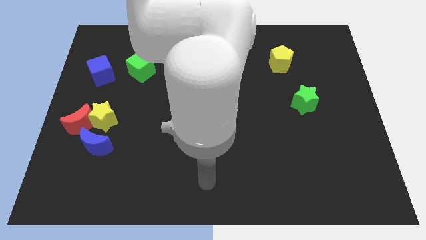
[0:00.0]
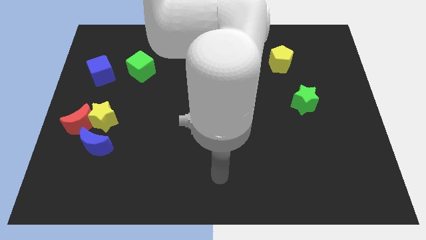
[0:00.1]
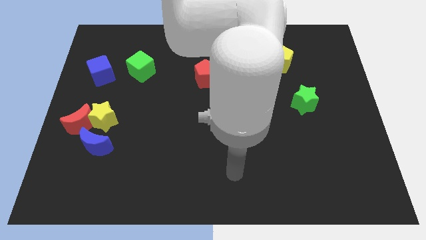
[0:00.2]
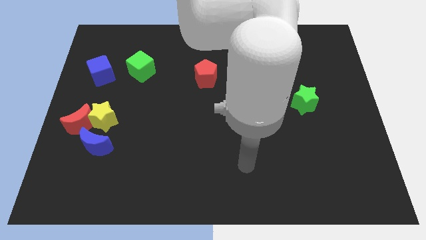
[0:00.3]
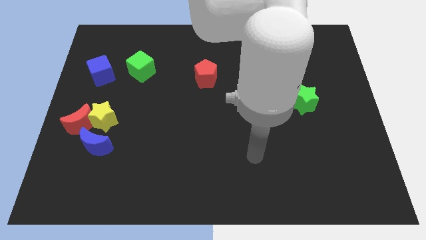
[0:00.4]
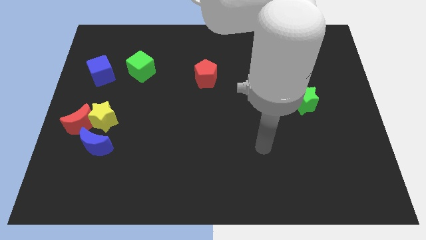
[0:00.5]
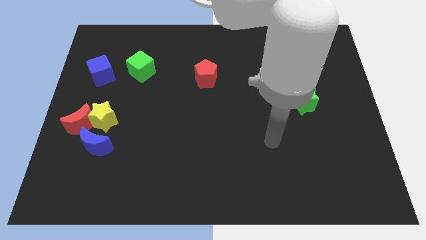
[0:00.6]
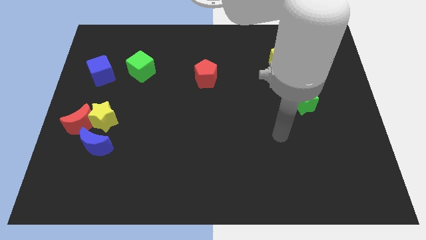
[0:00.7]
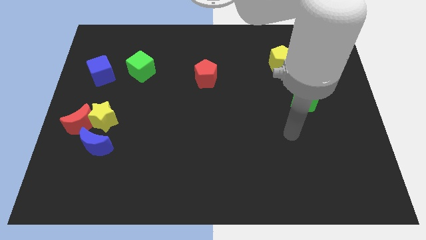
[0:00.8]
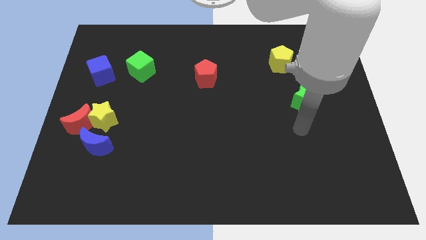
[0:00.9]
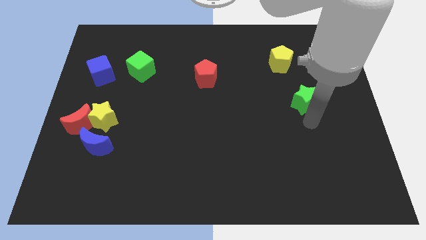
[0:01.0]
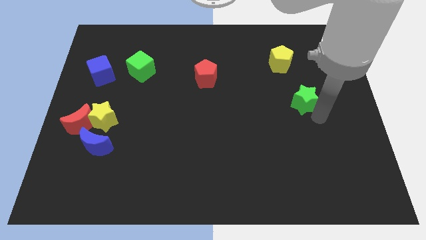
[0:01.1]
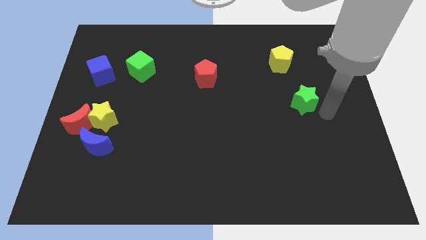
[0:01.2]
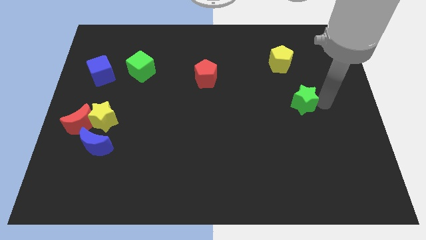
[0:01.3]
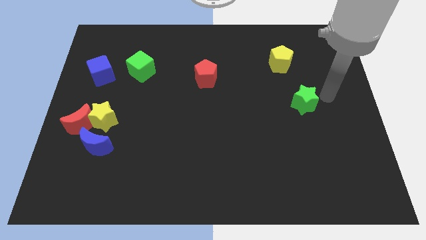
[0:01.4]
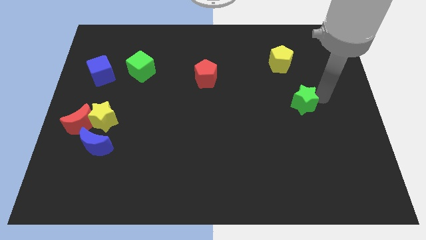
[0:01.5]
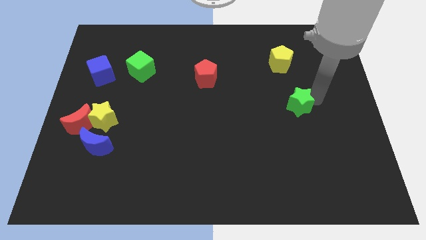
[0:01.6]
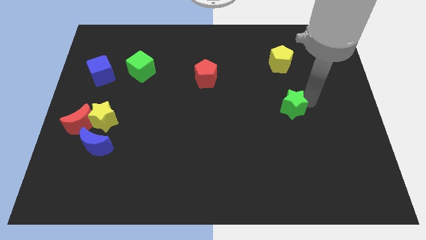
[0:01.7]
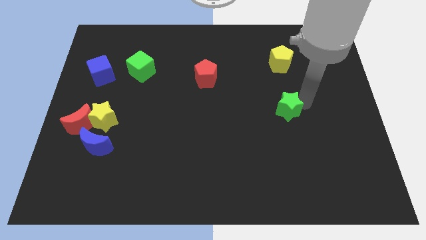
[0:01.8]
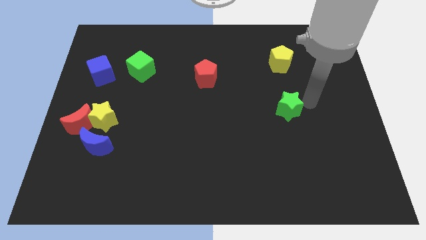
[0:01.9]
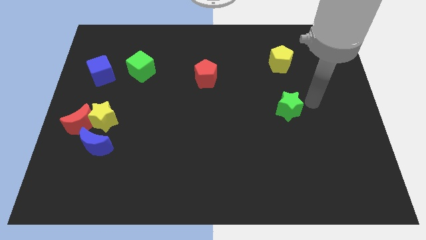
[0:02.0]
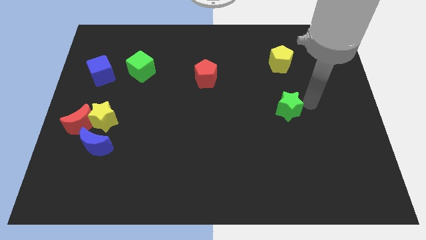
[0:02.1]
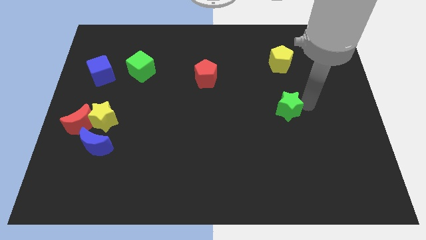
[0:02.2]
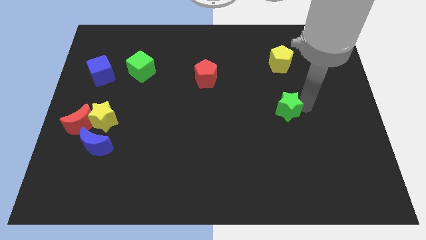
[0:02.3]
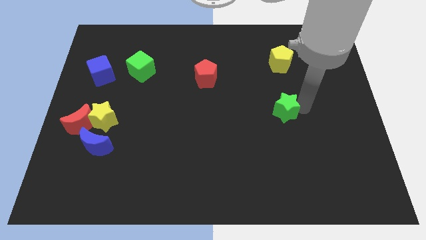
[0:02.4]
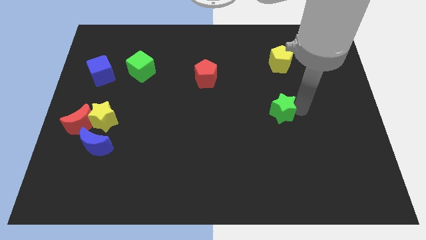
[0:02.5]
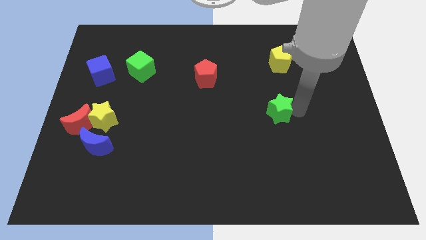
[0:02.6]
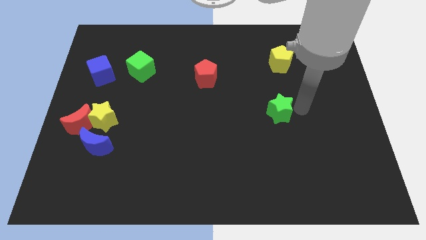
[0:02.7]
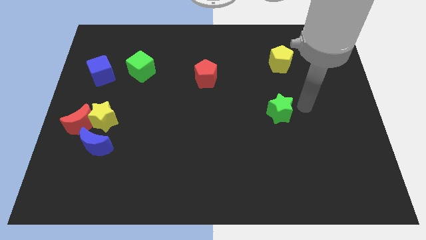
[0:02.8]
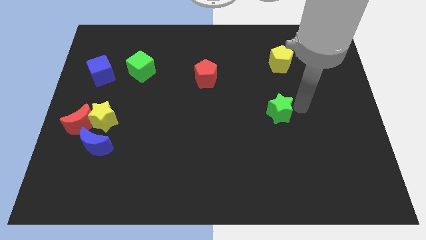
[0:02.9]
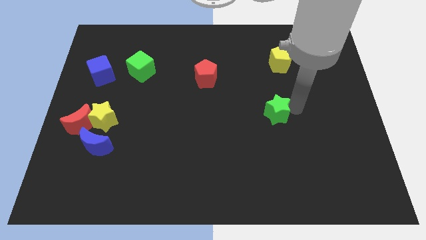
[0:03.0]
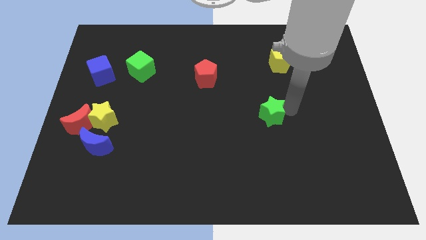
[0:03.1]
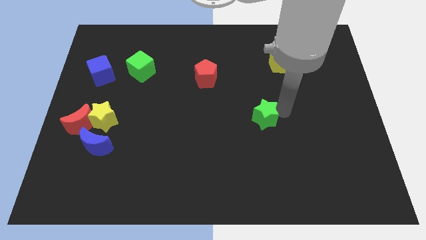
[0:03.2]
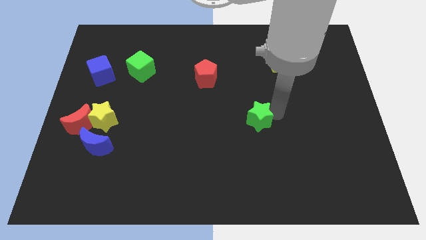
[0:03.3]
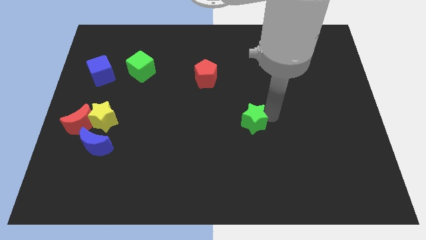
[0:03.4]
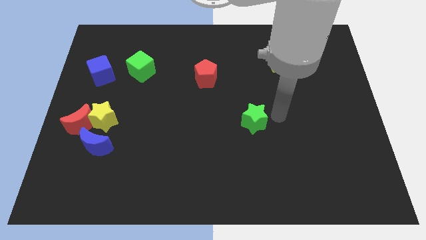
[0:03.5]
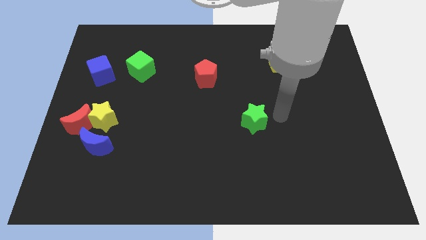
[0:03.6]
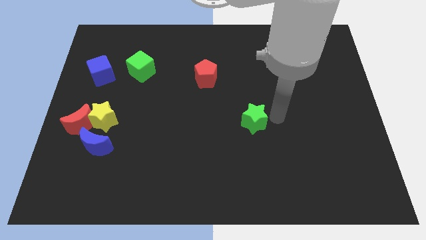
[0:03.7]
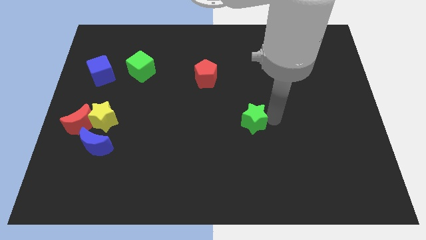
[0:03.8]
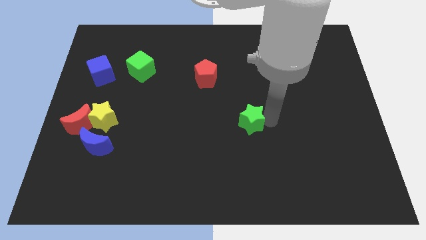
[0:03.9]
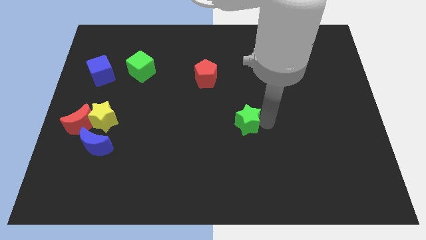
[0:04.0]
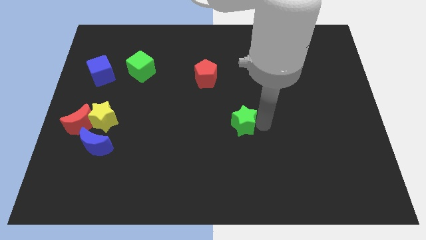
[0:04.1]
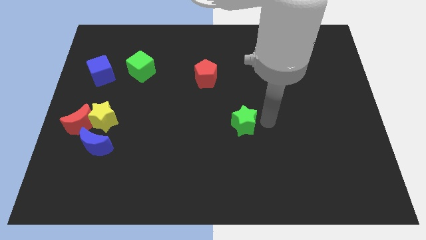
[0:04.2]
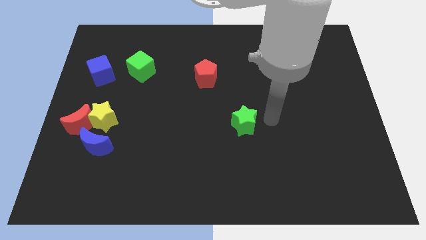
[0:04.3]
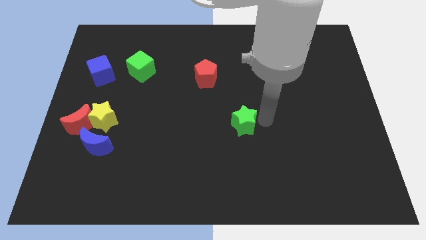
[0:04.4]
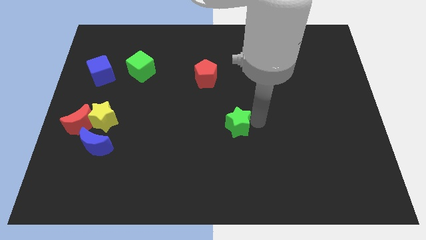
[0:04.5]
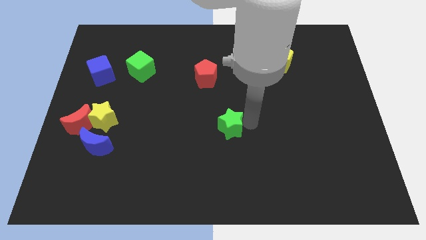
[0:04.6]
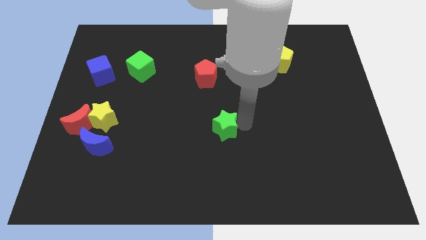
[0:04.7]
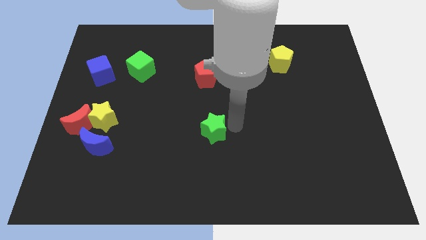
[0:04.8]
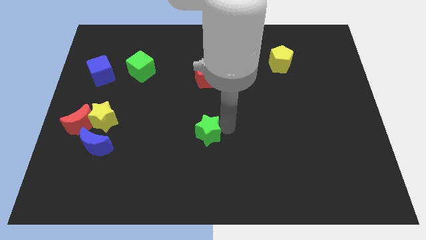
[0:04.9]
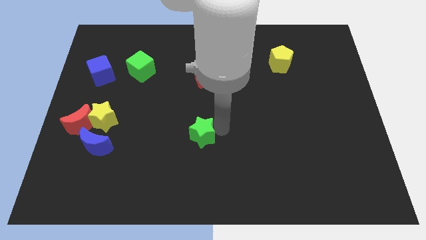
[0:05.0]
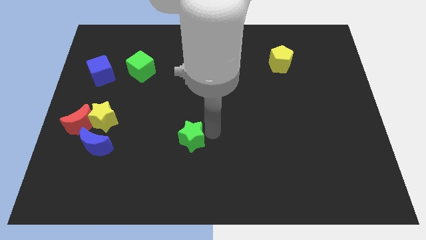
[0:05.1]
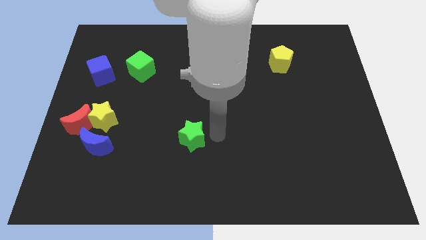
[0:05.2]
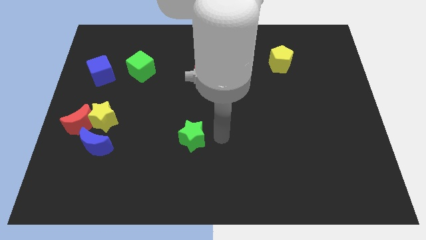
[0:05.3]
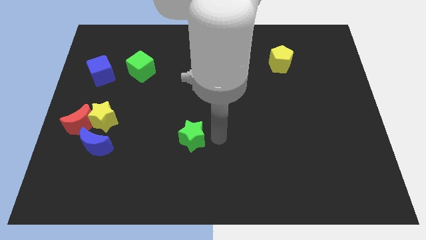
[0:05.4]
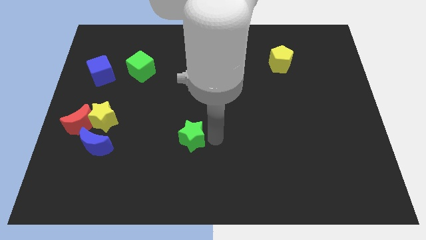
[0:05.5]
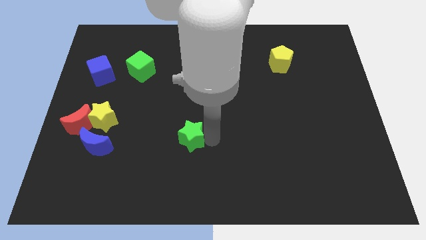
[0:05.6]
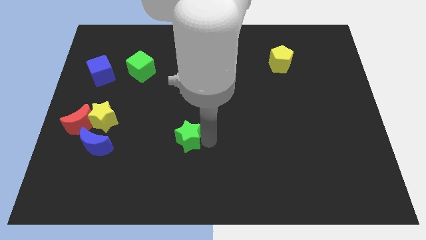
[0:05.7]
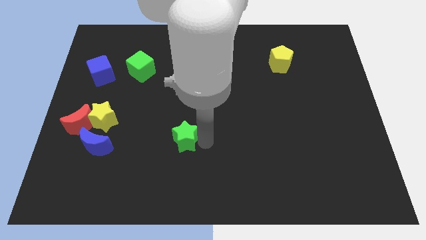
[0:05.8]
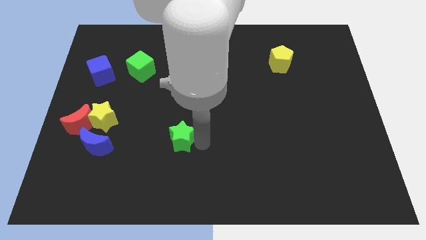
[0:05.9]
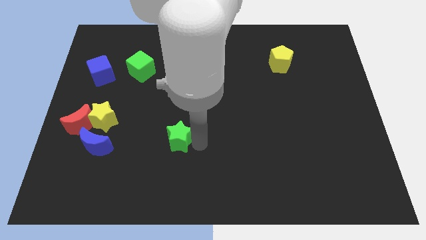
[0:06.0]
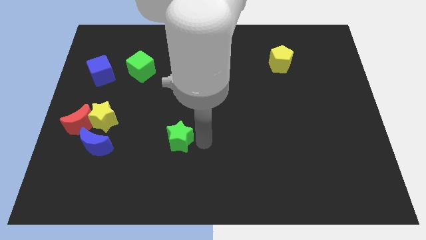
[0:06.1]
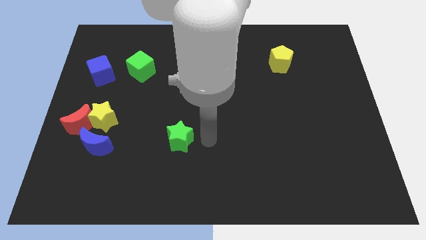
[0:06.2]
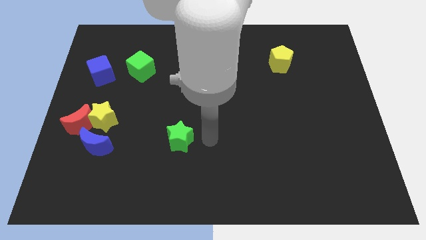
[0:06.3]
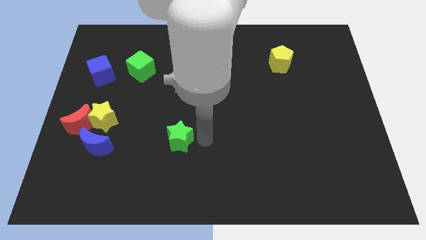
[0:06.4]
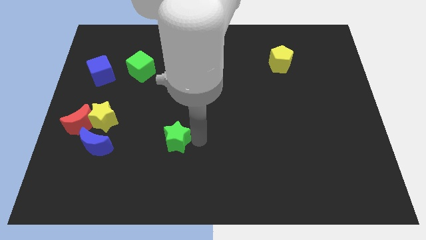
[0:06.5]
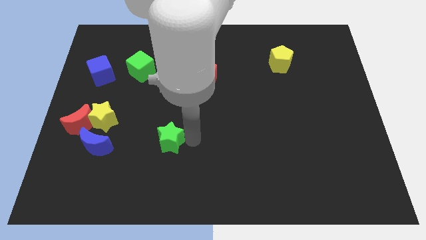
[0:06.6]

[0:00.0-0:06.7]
push the green star right of the blue moon
